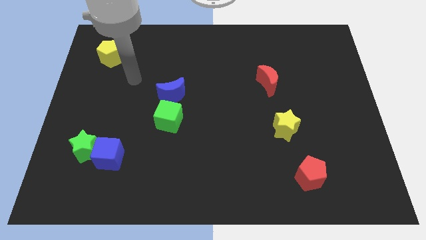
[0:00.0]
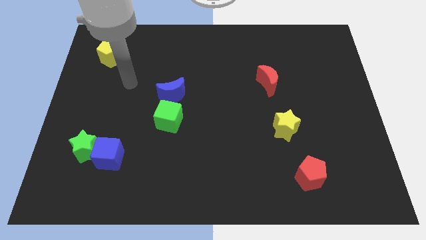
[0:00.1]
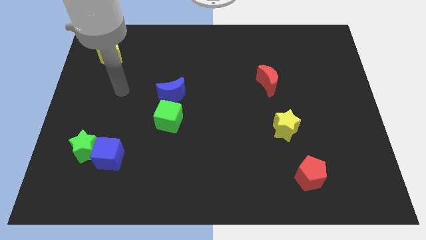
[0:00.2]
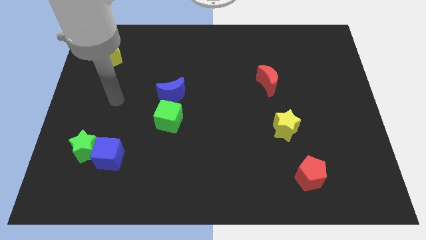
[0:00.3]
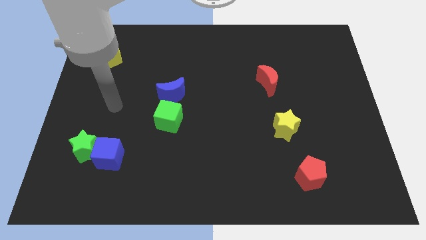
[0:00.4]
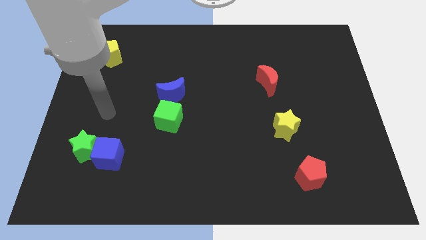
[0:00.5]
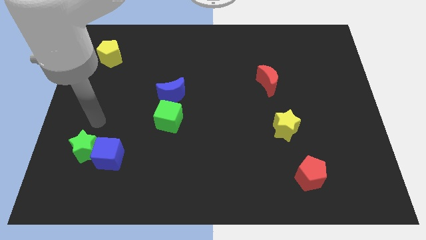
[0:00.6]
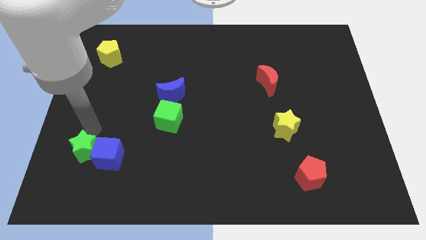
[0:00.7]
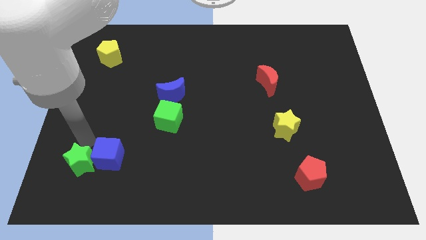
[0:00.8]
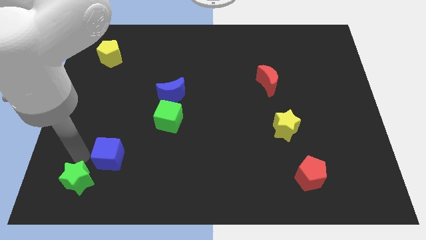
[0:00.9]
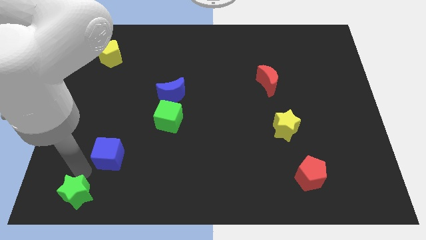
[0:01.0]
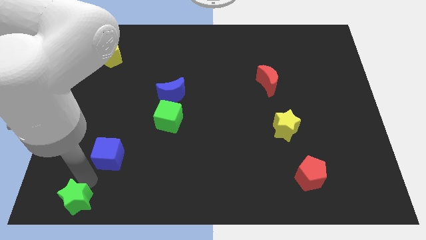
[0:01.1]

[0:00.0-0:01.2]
move the blue cube away from the green star

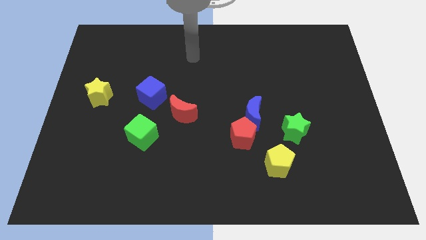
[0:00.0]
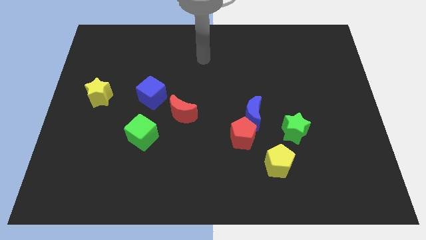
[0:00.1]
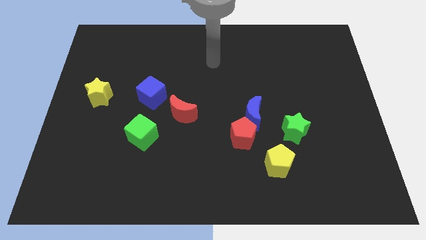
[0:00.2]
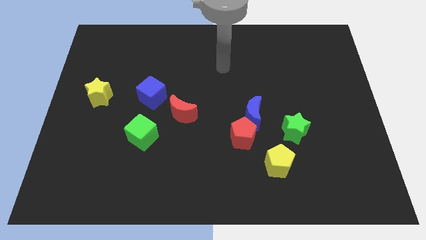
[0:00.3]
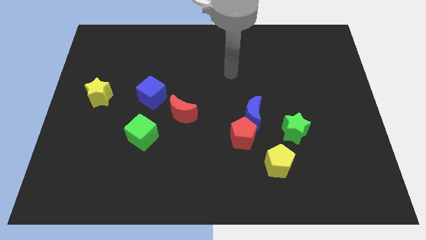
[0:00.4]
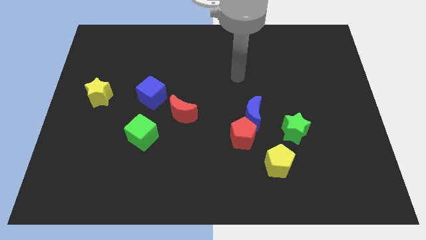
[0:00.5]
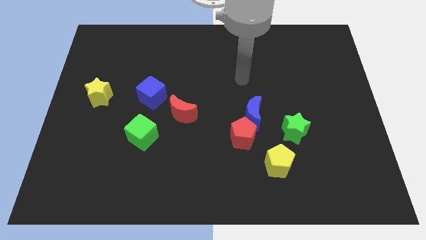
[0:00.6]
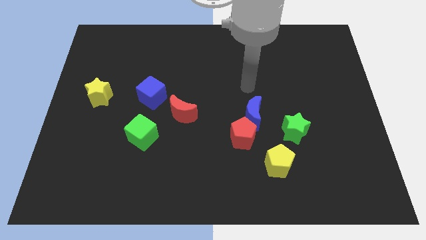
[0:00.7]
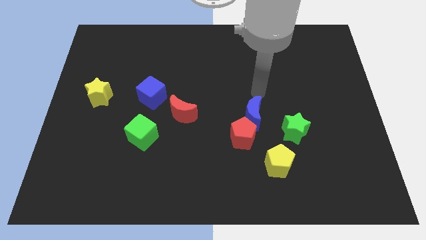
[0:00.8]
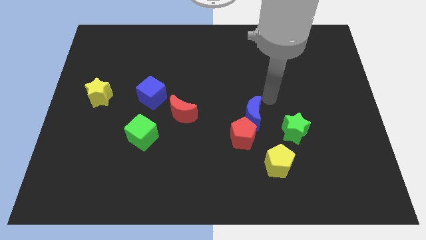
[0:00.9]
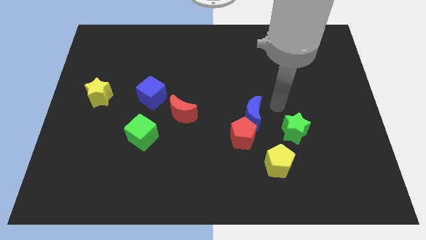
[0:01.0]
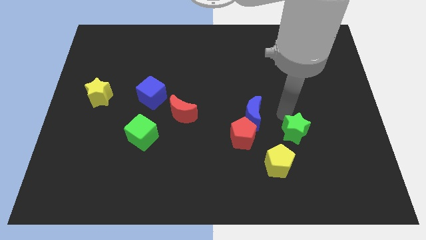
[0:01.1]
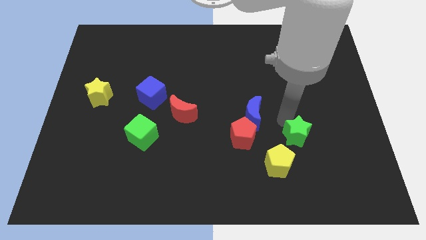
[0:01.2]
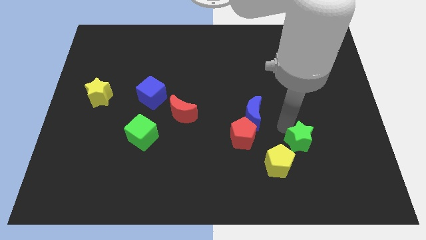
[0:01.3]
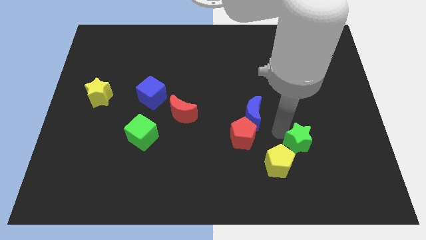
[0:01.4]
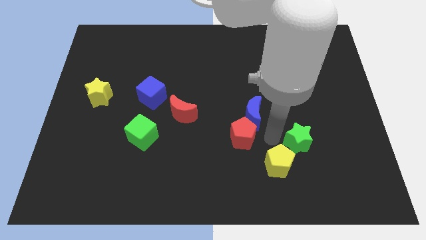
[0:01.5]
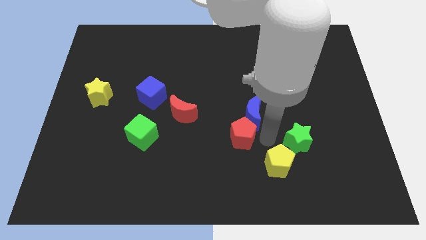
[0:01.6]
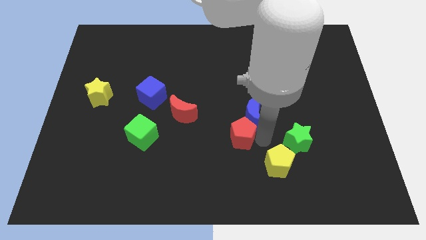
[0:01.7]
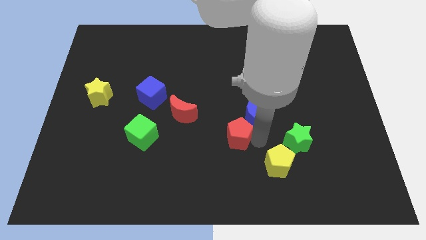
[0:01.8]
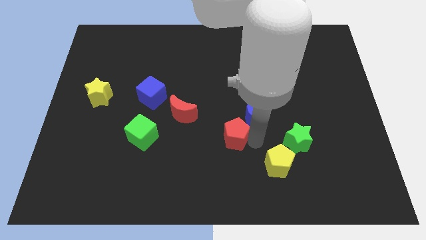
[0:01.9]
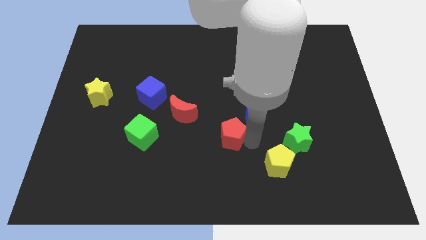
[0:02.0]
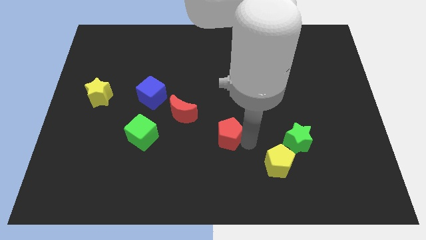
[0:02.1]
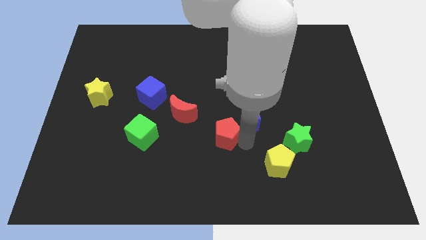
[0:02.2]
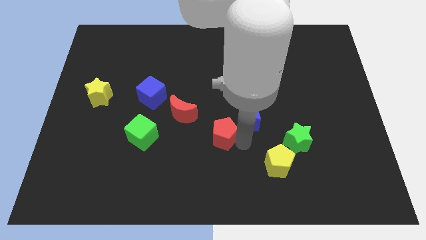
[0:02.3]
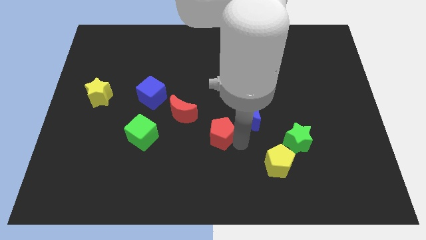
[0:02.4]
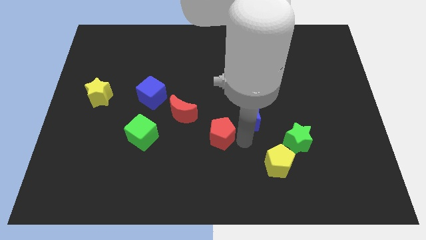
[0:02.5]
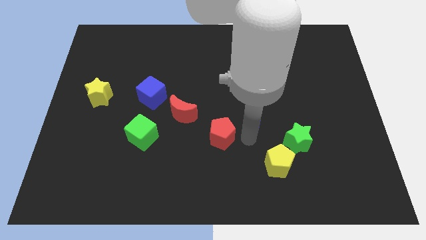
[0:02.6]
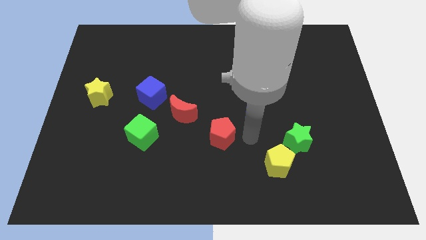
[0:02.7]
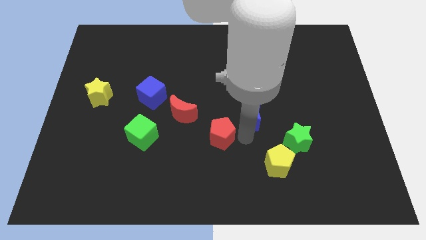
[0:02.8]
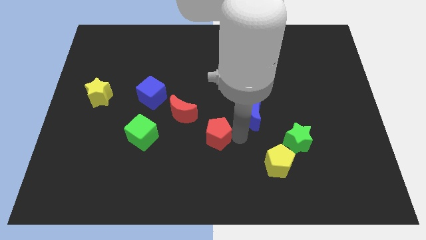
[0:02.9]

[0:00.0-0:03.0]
move the red pentagon away from the blue moon and yellow pentagon

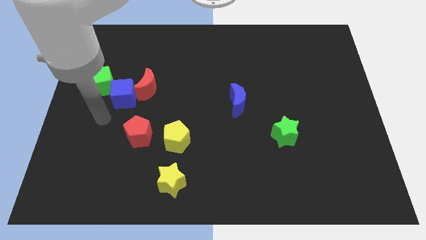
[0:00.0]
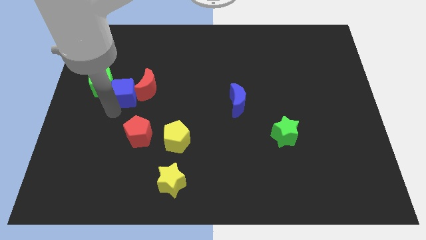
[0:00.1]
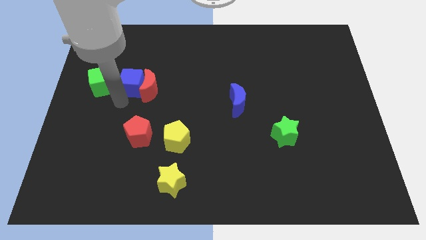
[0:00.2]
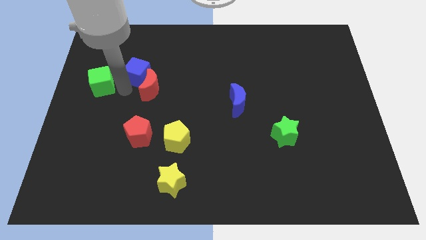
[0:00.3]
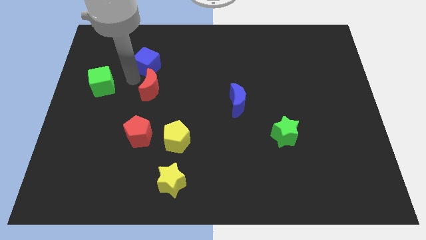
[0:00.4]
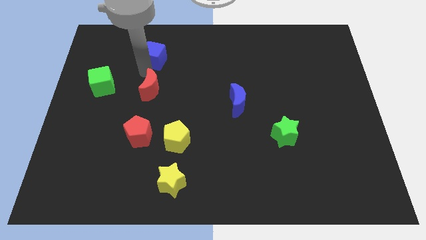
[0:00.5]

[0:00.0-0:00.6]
pull the red moon apart from the blue cube

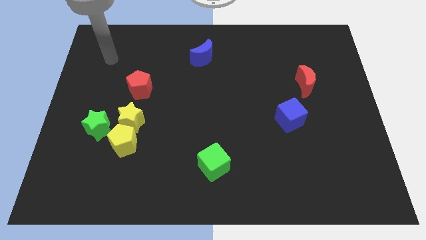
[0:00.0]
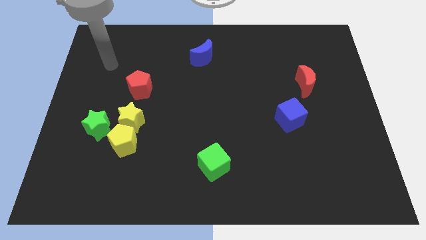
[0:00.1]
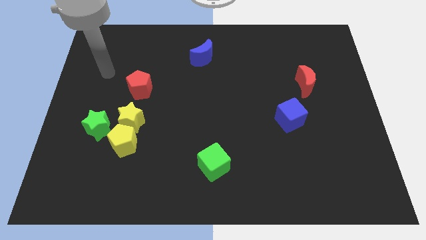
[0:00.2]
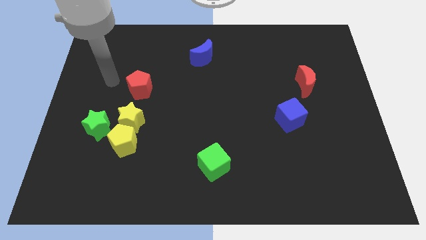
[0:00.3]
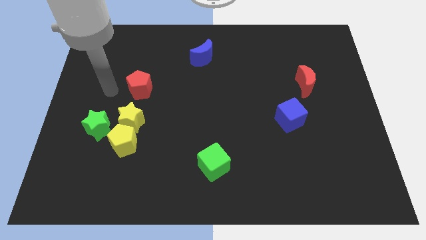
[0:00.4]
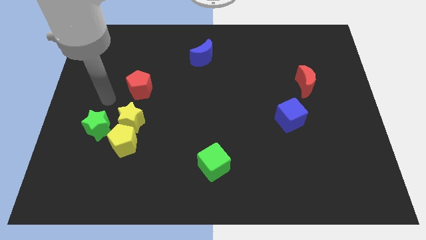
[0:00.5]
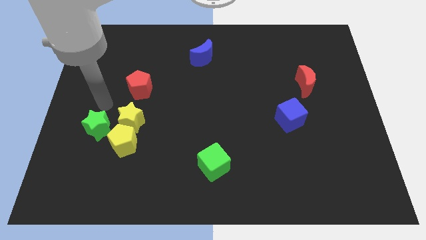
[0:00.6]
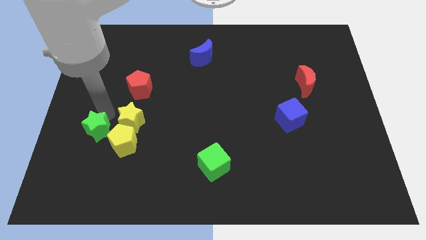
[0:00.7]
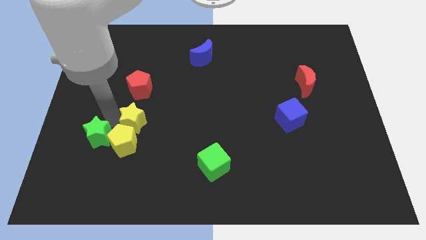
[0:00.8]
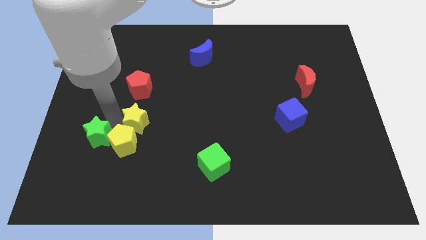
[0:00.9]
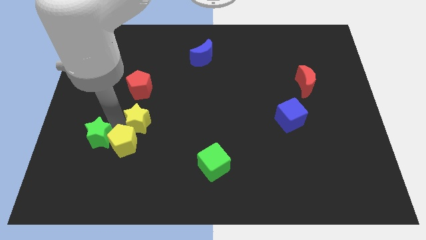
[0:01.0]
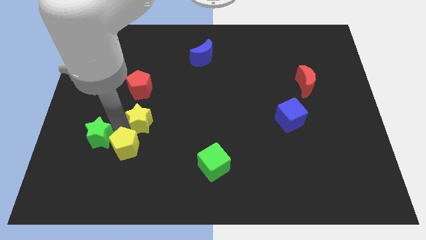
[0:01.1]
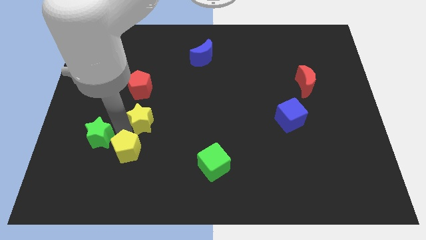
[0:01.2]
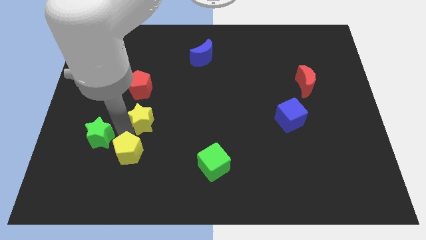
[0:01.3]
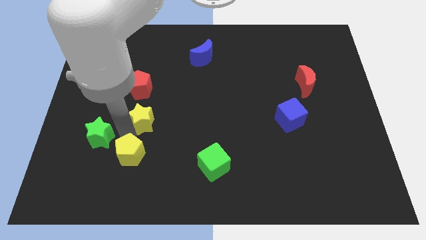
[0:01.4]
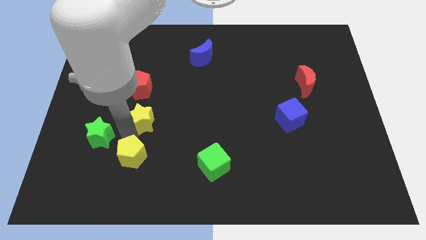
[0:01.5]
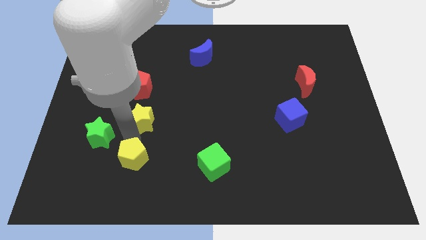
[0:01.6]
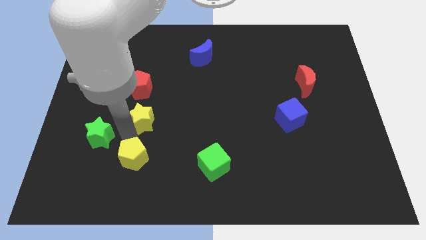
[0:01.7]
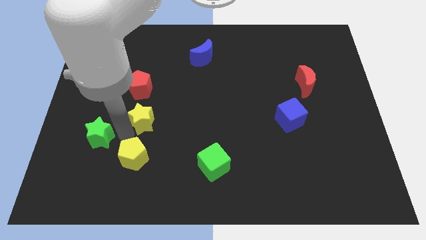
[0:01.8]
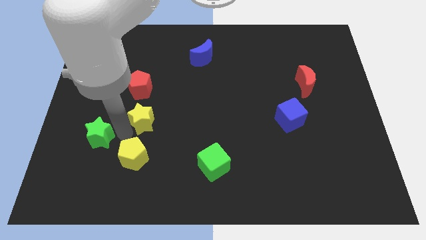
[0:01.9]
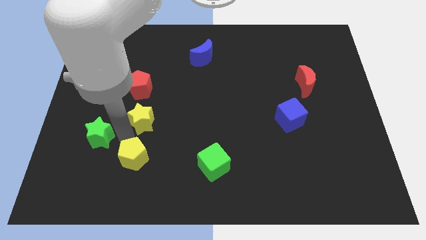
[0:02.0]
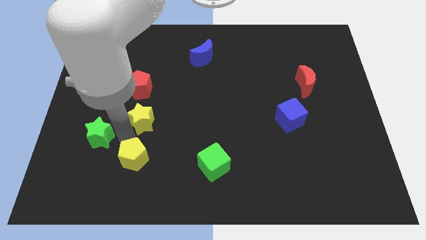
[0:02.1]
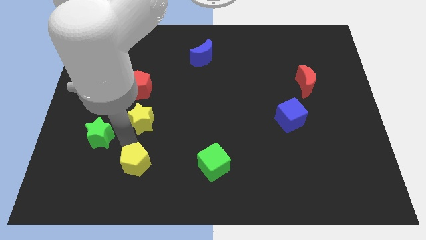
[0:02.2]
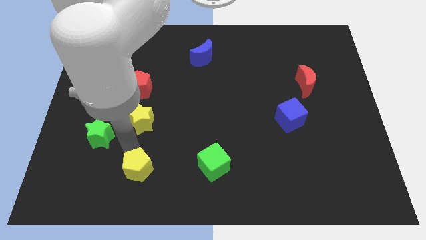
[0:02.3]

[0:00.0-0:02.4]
pull the yellow pentagon apart from the yellow star and green star

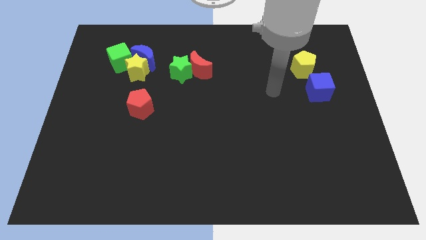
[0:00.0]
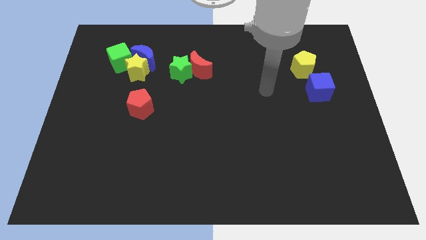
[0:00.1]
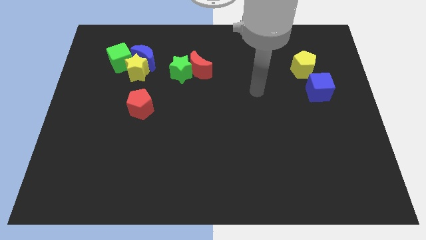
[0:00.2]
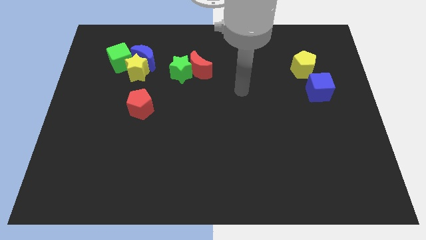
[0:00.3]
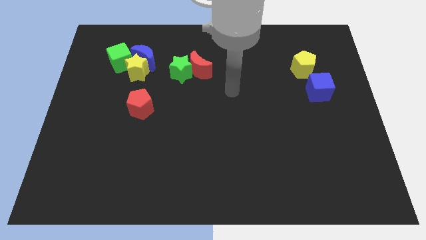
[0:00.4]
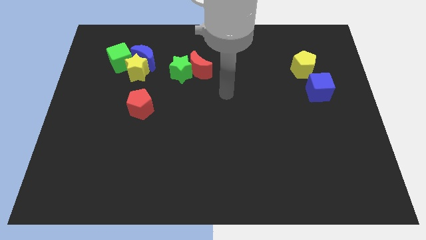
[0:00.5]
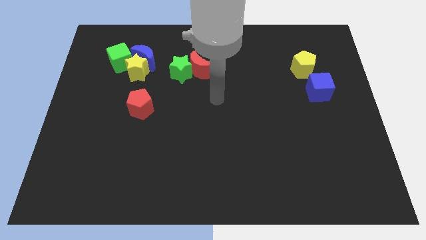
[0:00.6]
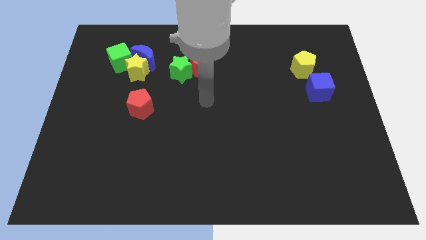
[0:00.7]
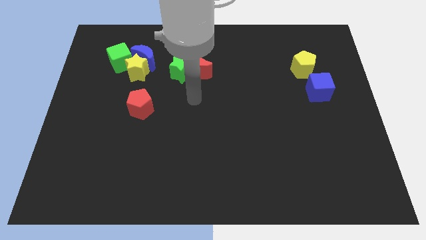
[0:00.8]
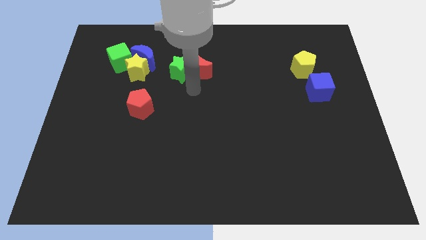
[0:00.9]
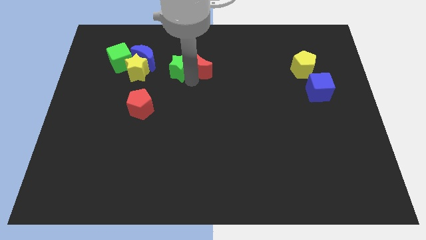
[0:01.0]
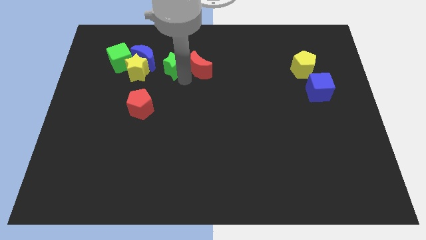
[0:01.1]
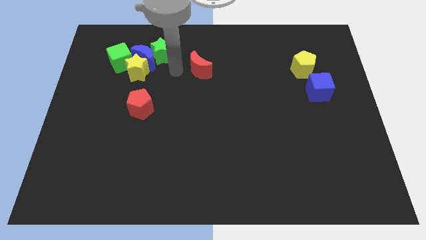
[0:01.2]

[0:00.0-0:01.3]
pull the red moon apart from the green star

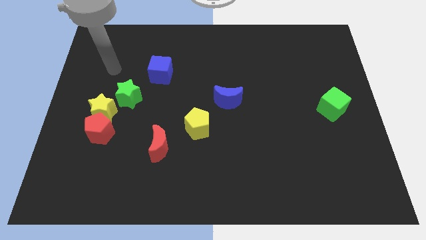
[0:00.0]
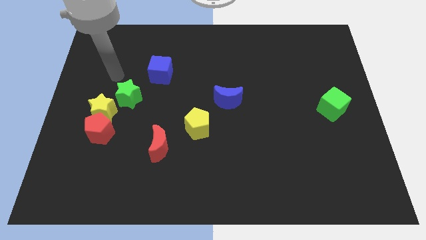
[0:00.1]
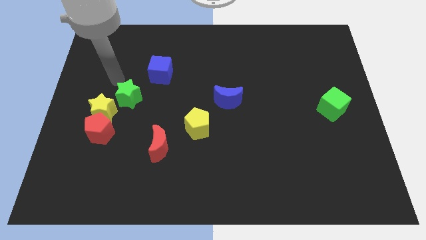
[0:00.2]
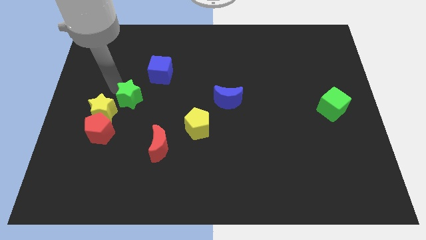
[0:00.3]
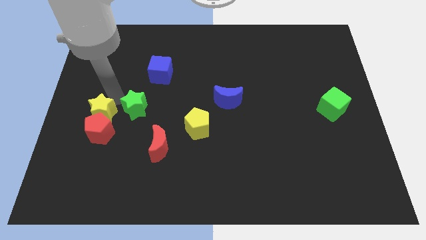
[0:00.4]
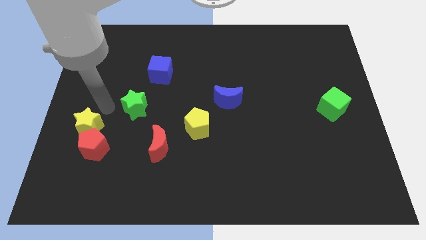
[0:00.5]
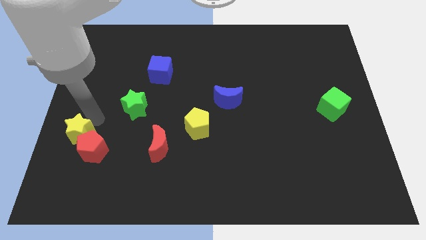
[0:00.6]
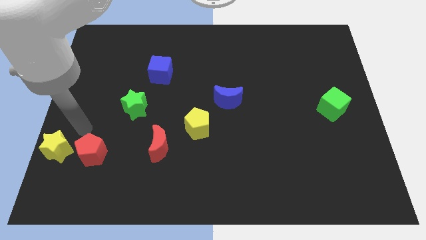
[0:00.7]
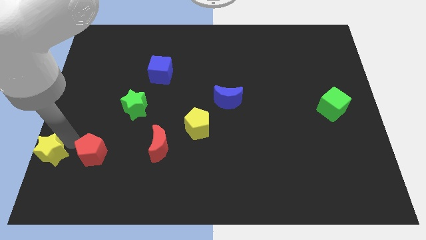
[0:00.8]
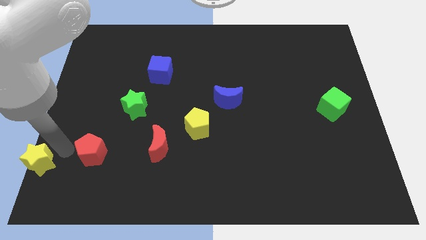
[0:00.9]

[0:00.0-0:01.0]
pull the red pentagon apart from the yellow star
